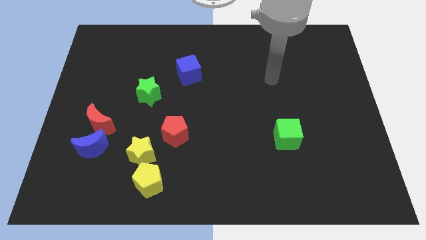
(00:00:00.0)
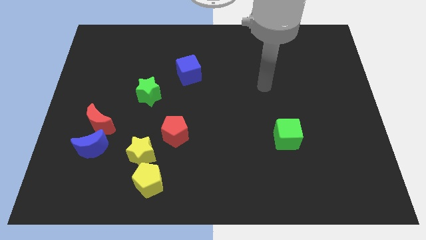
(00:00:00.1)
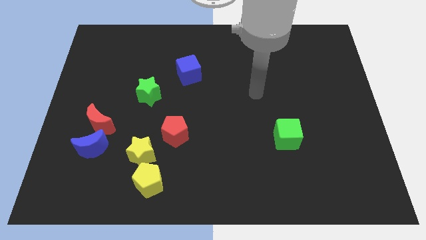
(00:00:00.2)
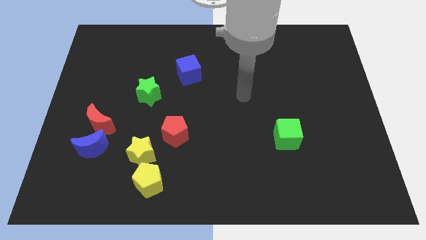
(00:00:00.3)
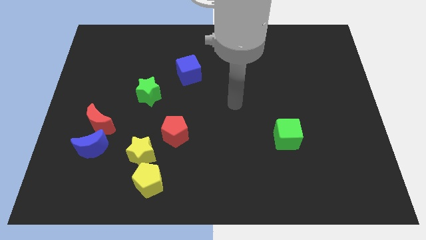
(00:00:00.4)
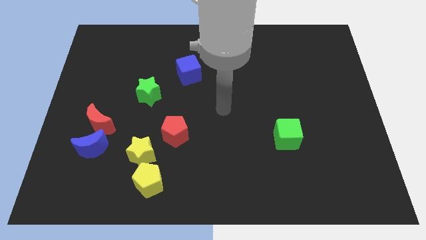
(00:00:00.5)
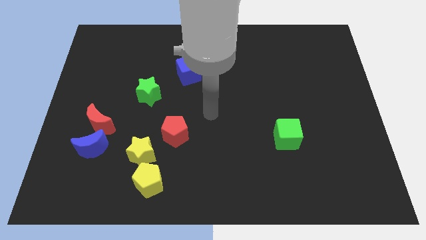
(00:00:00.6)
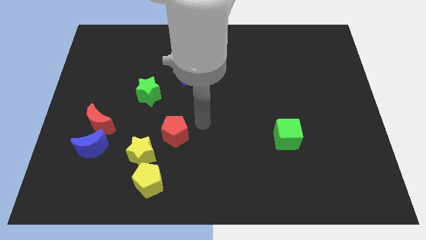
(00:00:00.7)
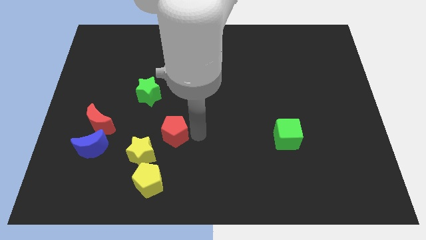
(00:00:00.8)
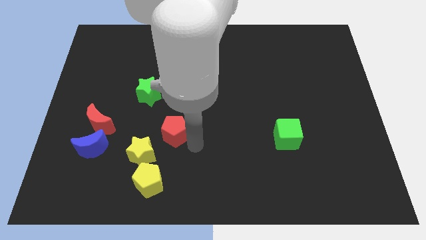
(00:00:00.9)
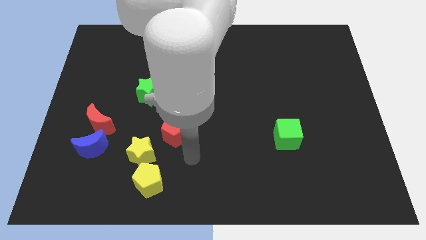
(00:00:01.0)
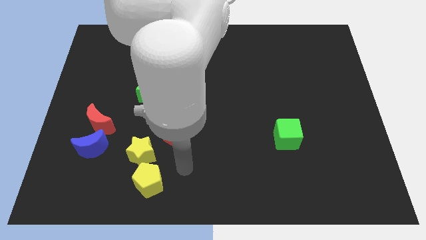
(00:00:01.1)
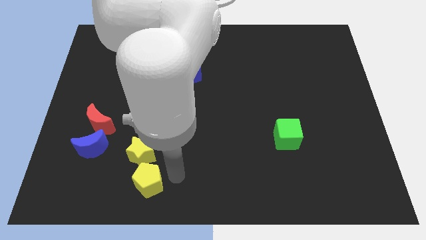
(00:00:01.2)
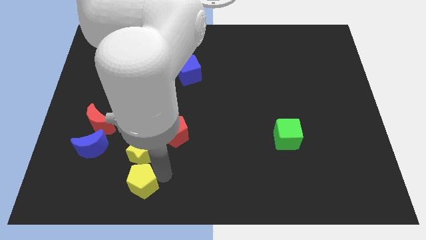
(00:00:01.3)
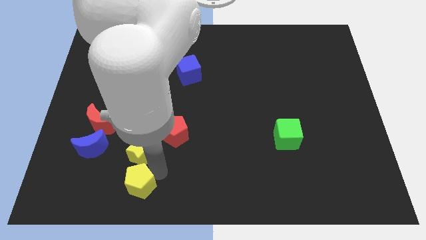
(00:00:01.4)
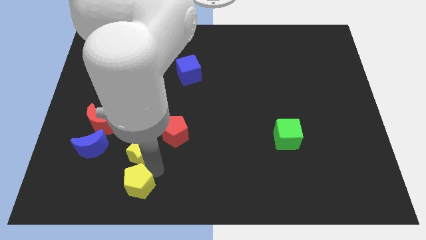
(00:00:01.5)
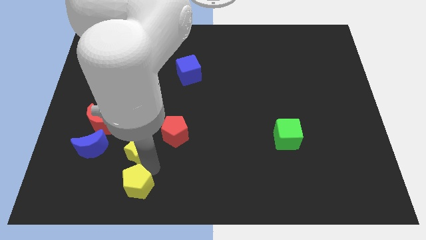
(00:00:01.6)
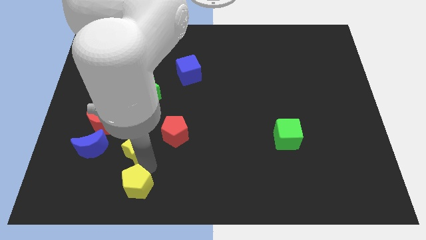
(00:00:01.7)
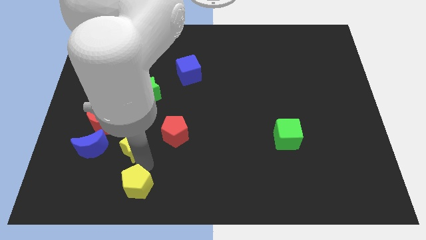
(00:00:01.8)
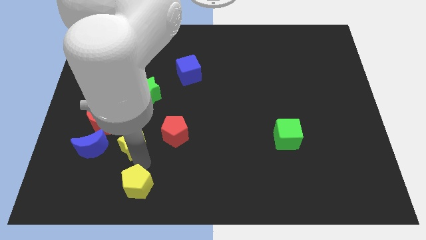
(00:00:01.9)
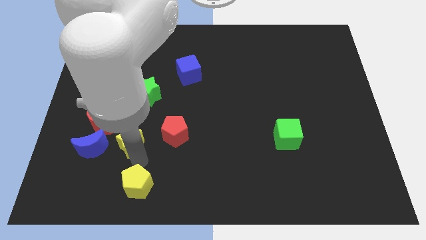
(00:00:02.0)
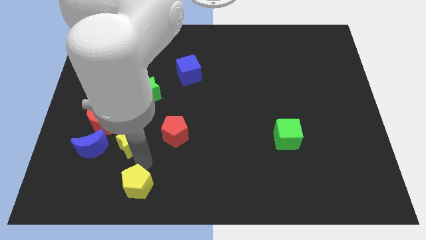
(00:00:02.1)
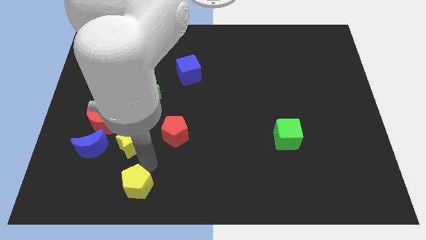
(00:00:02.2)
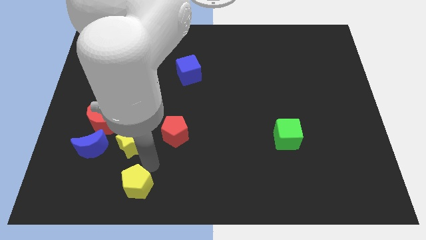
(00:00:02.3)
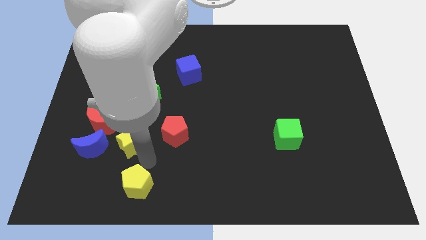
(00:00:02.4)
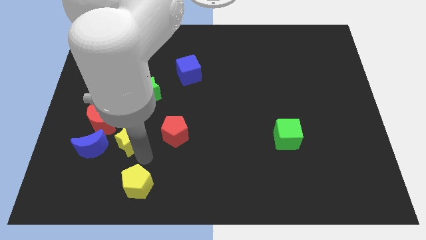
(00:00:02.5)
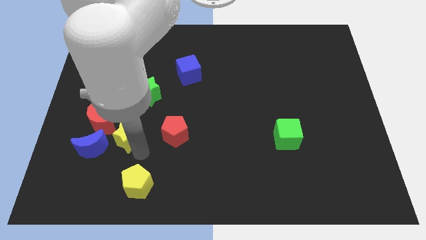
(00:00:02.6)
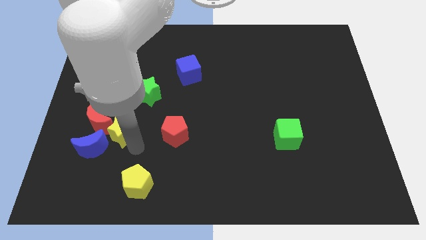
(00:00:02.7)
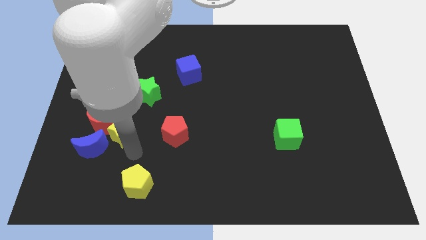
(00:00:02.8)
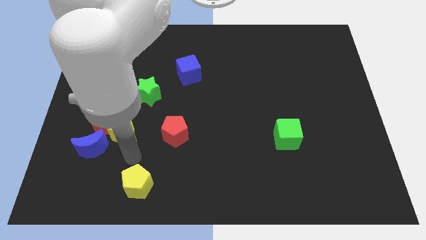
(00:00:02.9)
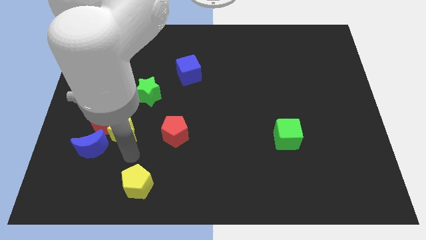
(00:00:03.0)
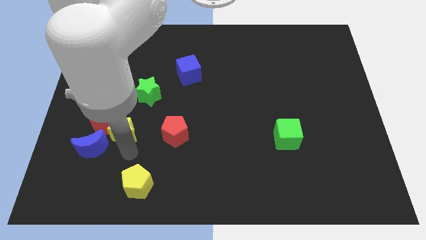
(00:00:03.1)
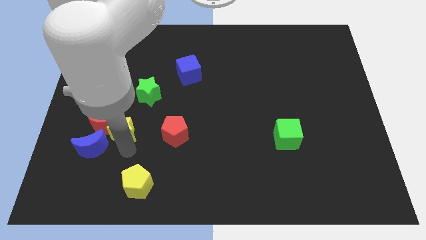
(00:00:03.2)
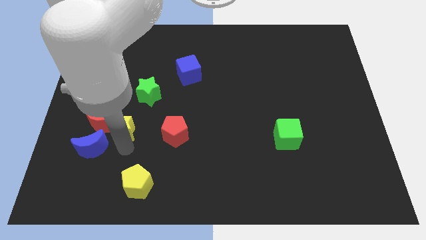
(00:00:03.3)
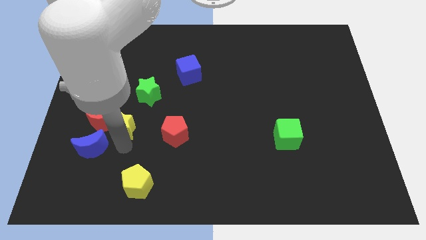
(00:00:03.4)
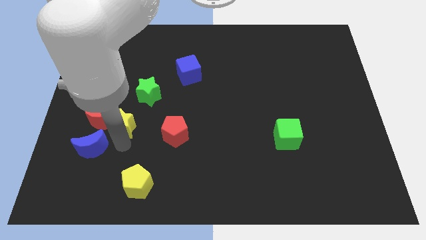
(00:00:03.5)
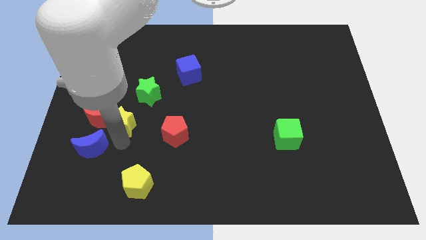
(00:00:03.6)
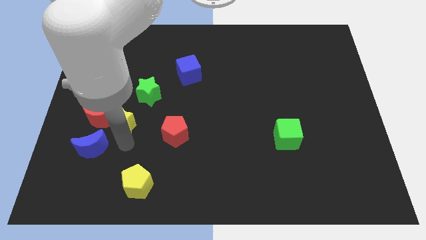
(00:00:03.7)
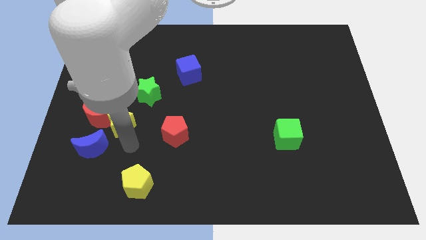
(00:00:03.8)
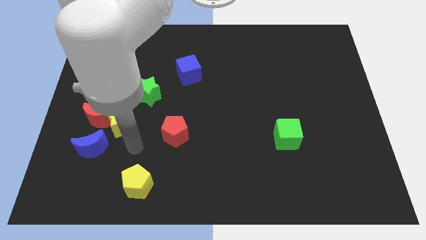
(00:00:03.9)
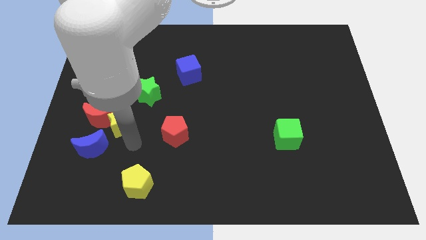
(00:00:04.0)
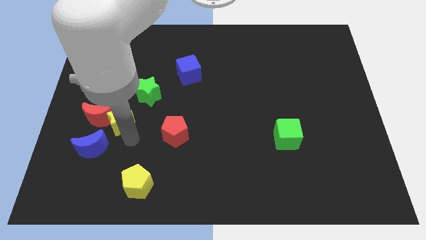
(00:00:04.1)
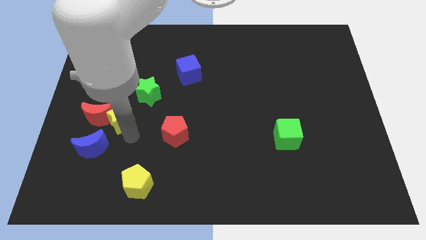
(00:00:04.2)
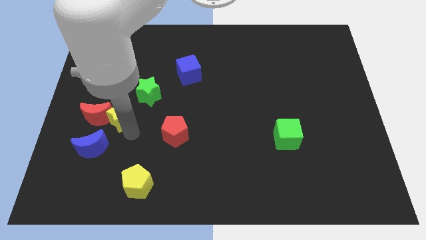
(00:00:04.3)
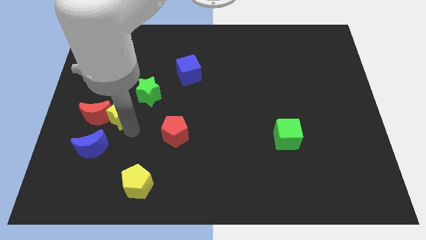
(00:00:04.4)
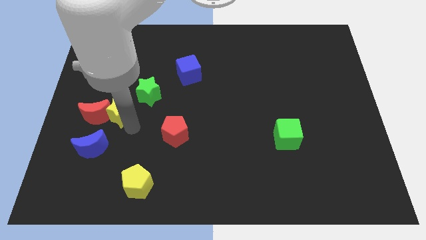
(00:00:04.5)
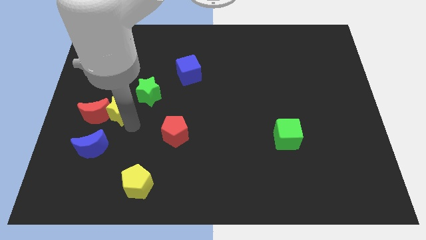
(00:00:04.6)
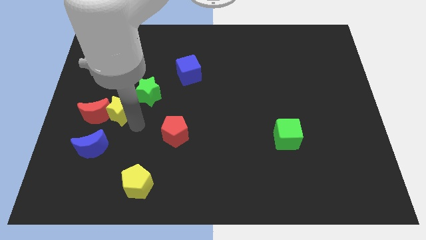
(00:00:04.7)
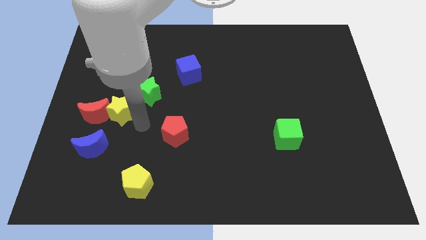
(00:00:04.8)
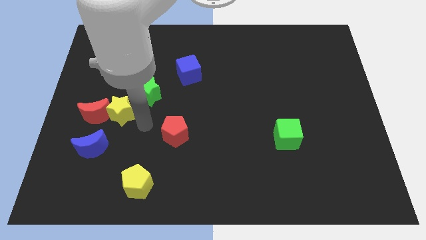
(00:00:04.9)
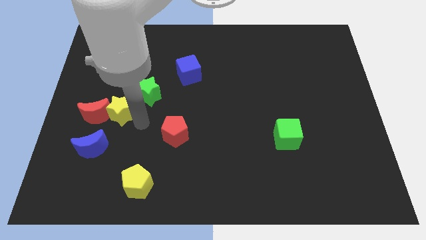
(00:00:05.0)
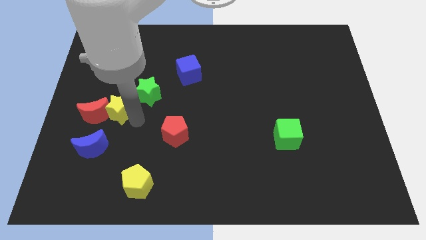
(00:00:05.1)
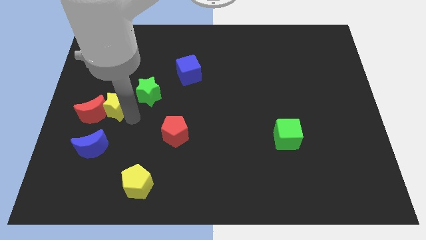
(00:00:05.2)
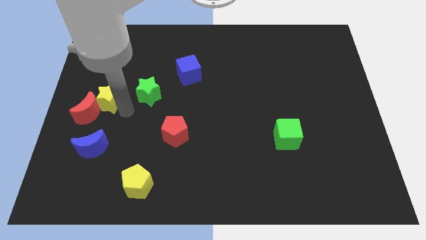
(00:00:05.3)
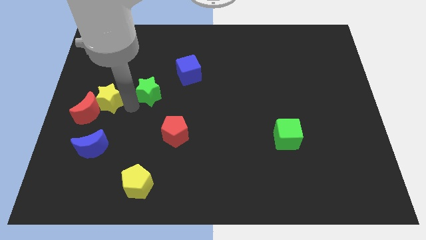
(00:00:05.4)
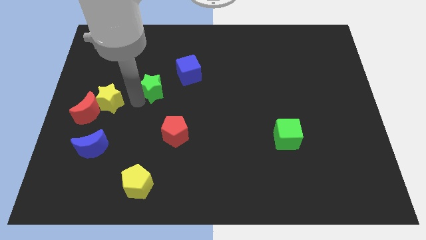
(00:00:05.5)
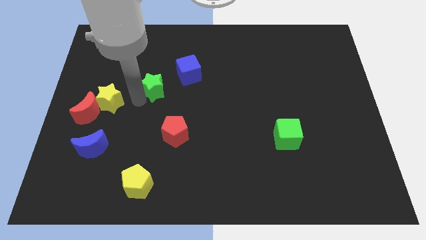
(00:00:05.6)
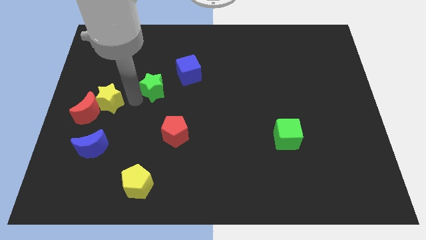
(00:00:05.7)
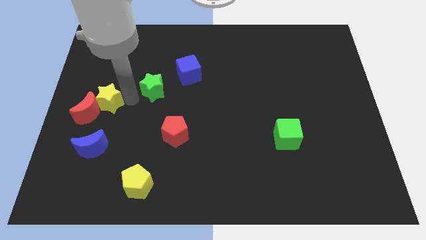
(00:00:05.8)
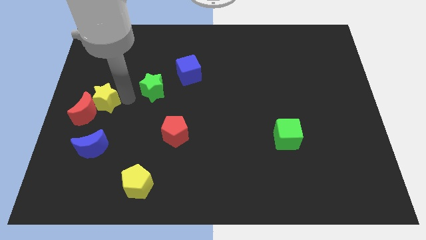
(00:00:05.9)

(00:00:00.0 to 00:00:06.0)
slide the yellow star to the center left
